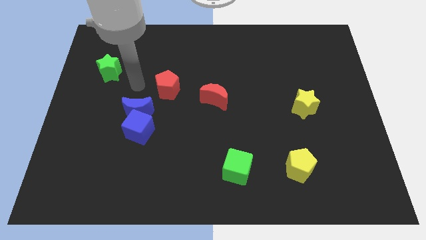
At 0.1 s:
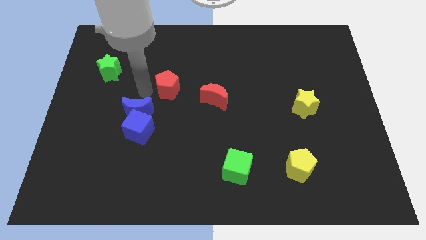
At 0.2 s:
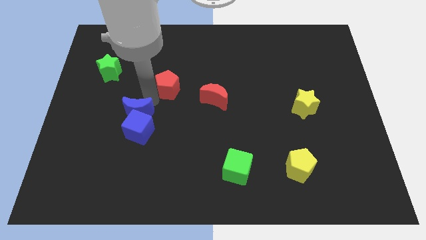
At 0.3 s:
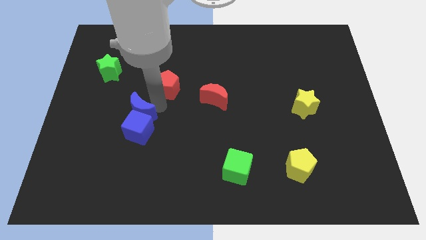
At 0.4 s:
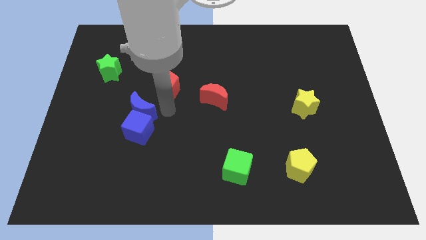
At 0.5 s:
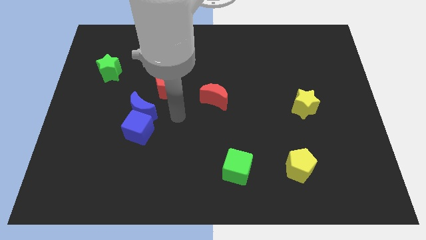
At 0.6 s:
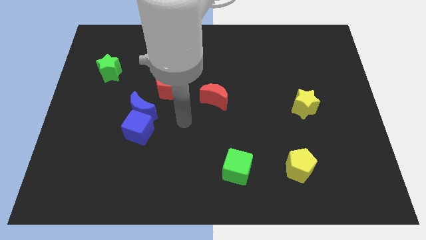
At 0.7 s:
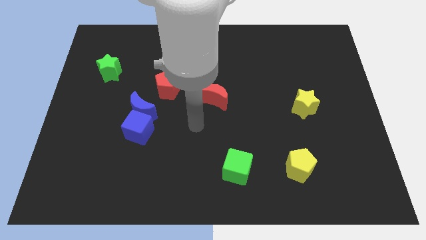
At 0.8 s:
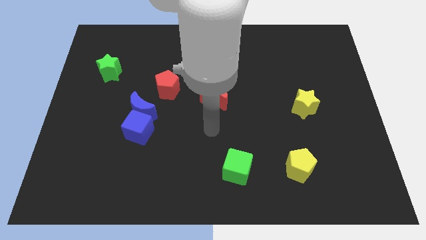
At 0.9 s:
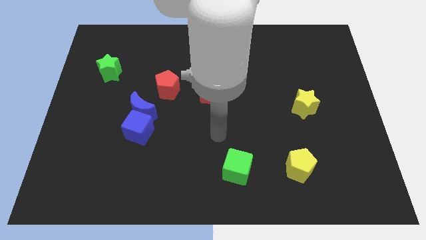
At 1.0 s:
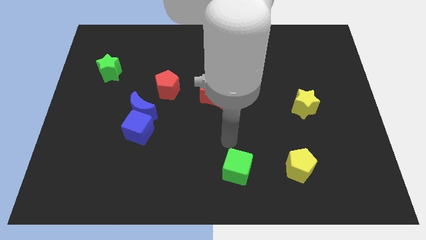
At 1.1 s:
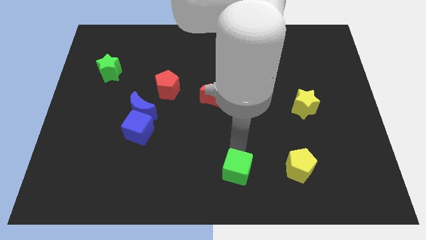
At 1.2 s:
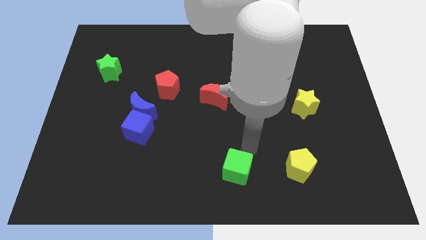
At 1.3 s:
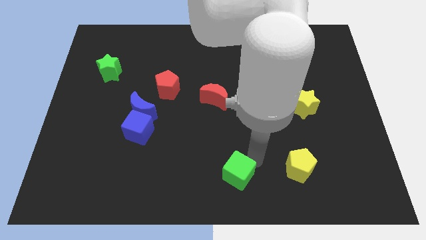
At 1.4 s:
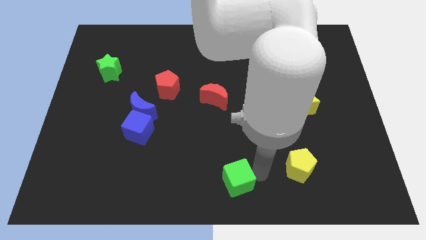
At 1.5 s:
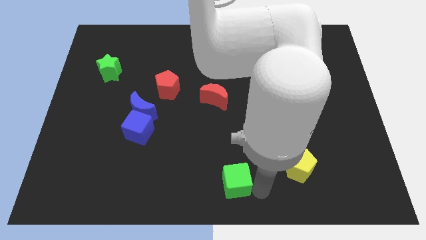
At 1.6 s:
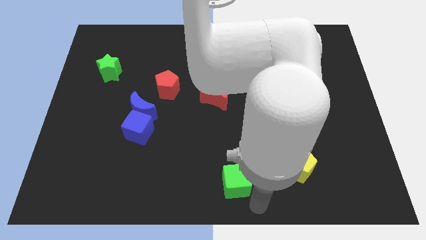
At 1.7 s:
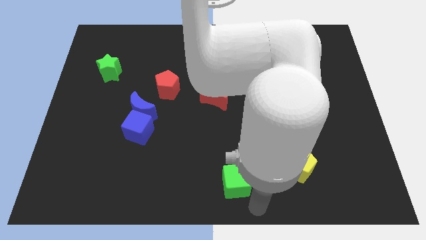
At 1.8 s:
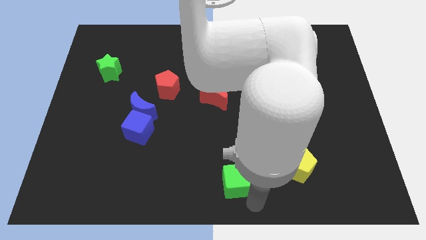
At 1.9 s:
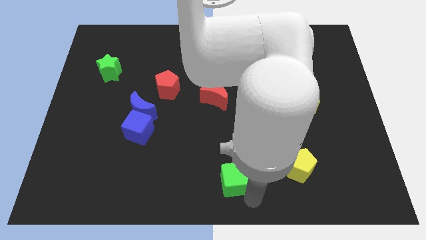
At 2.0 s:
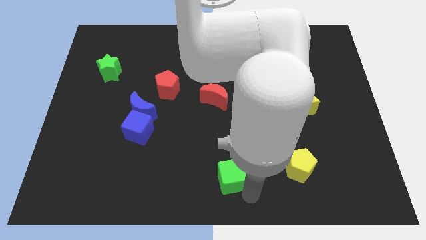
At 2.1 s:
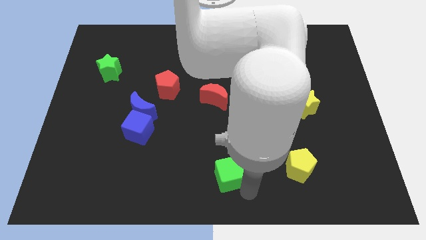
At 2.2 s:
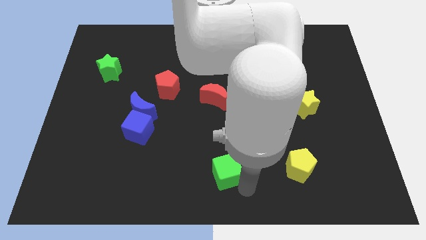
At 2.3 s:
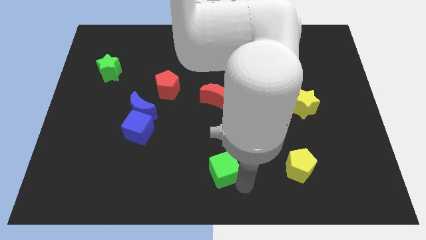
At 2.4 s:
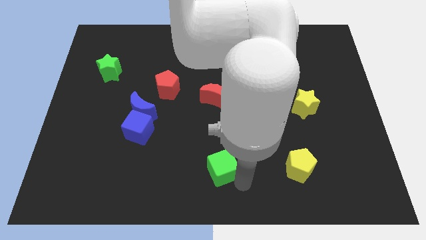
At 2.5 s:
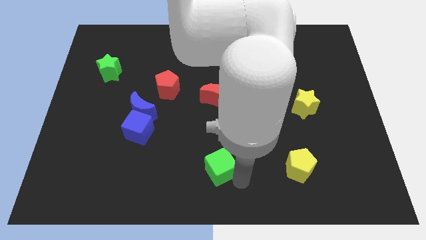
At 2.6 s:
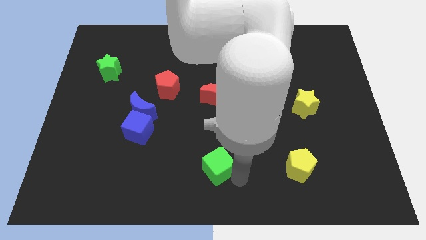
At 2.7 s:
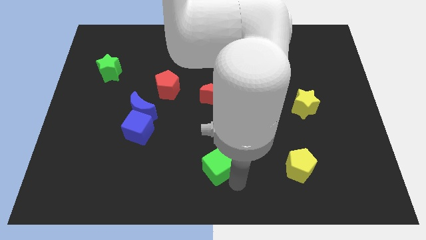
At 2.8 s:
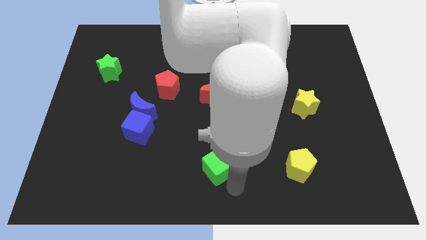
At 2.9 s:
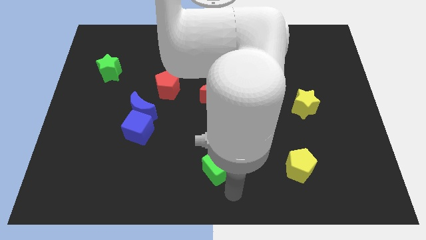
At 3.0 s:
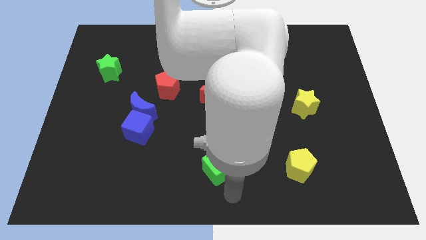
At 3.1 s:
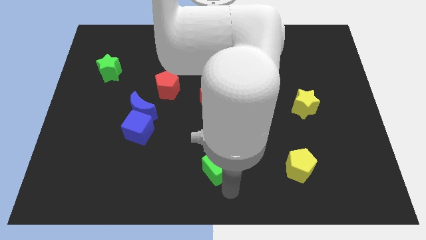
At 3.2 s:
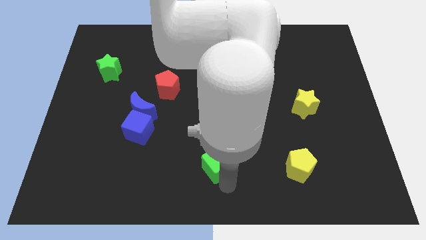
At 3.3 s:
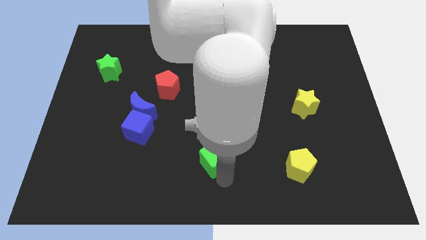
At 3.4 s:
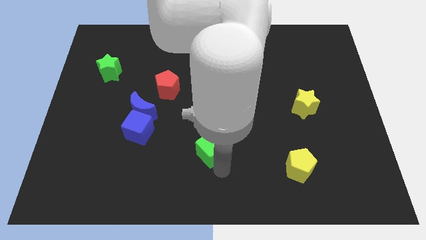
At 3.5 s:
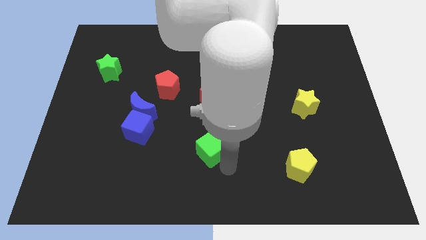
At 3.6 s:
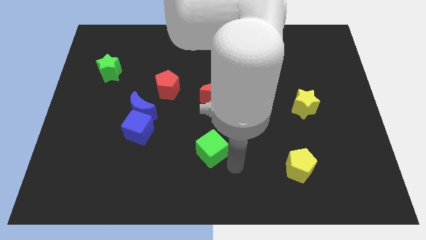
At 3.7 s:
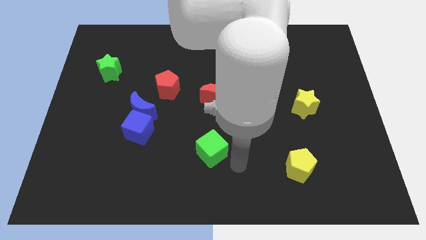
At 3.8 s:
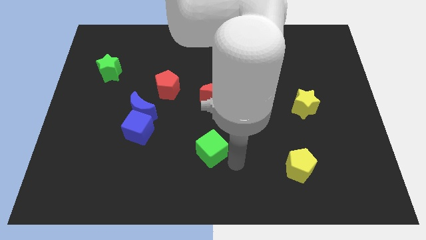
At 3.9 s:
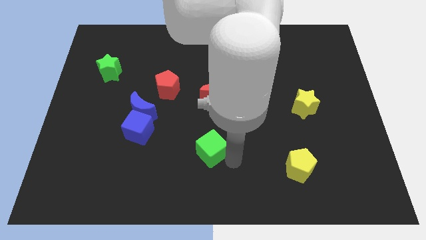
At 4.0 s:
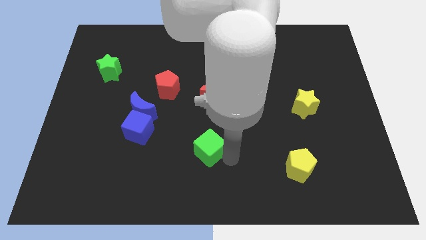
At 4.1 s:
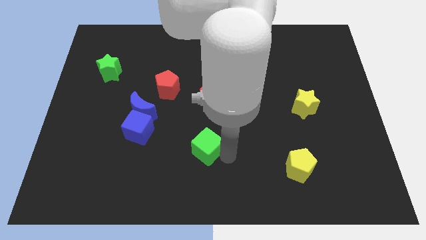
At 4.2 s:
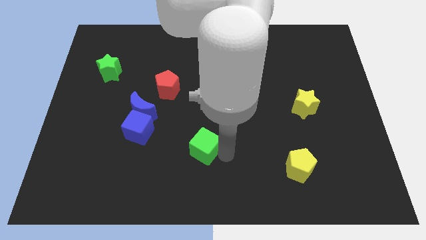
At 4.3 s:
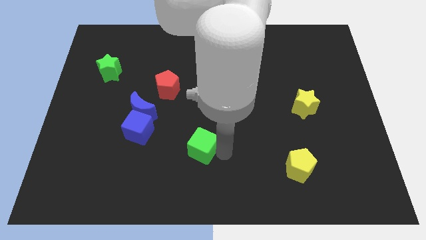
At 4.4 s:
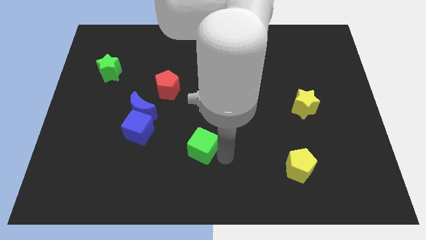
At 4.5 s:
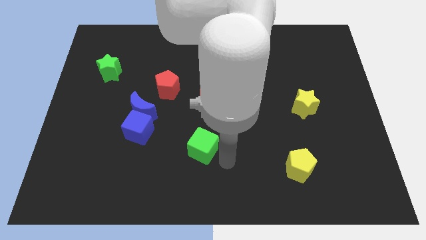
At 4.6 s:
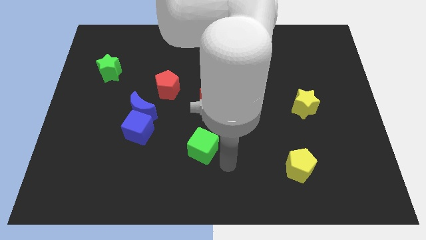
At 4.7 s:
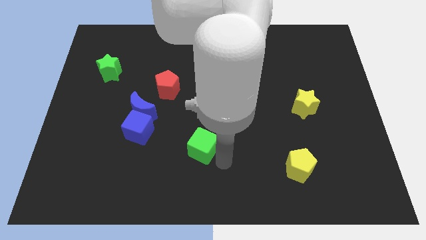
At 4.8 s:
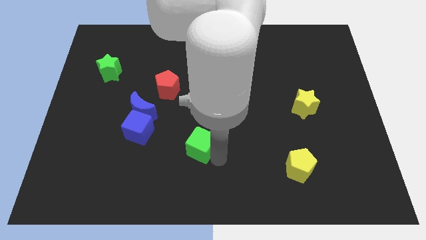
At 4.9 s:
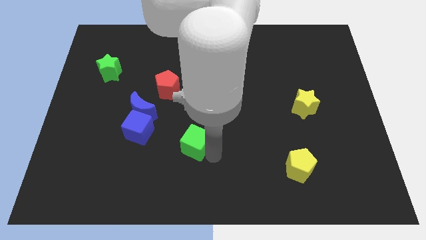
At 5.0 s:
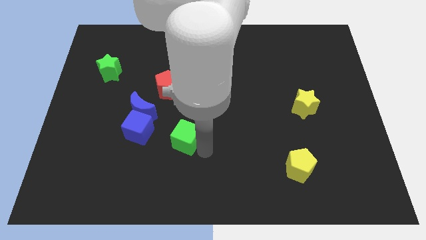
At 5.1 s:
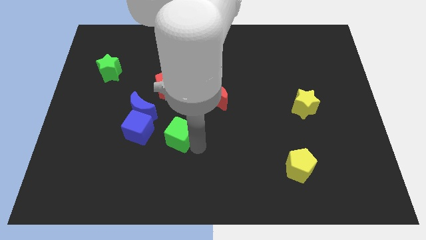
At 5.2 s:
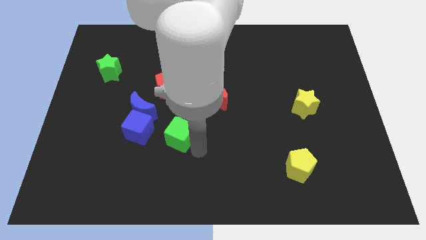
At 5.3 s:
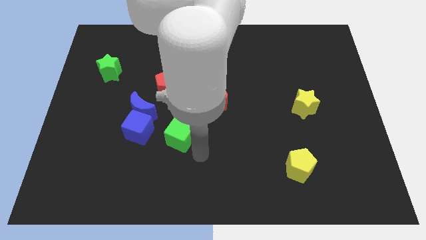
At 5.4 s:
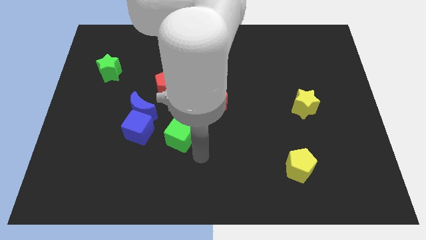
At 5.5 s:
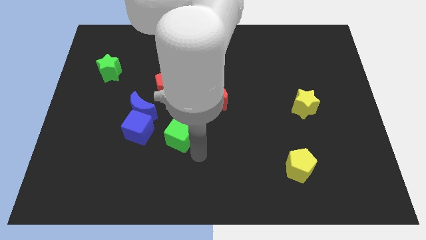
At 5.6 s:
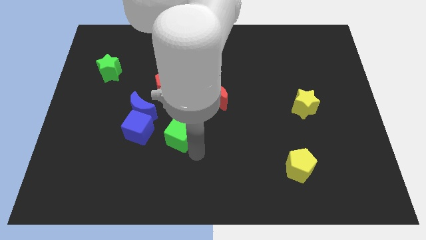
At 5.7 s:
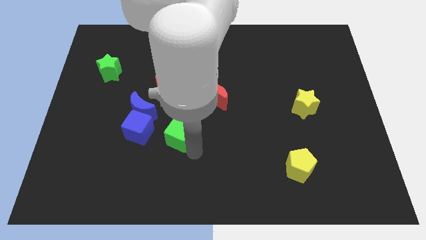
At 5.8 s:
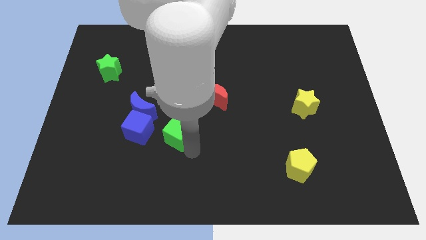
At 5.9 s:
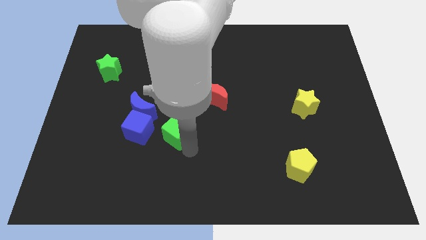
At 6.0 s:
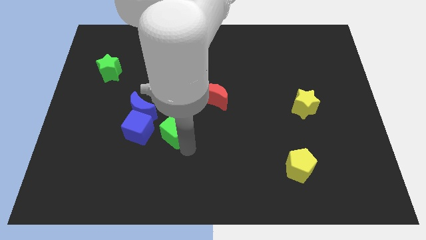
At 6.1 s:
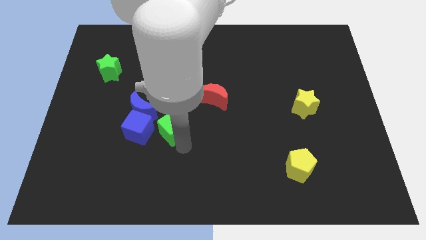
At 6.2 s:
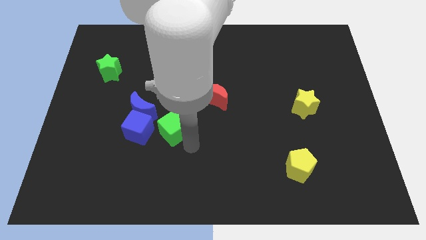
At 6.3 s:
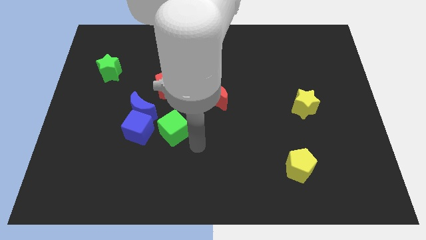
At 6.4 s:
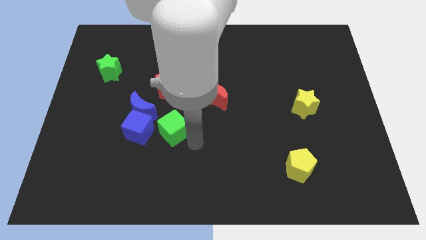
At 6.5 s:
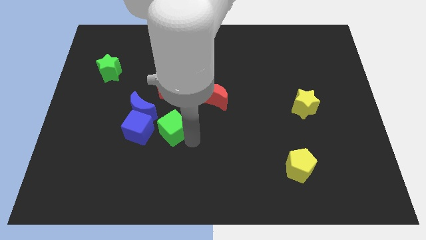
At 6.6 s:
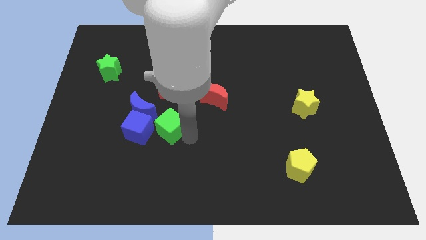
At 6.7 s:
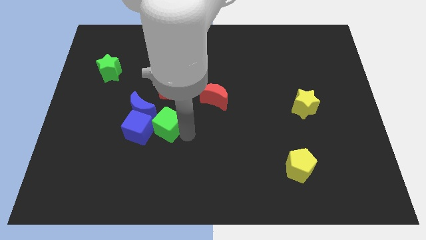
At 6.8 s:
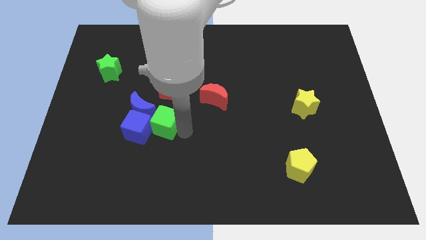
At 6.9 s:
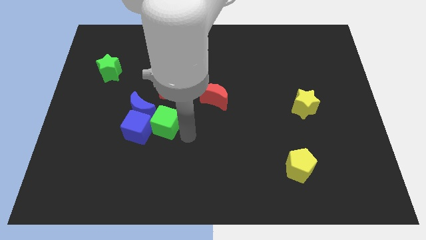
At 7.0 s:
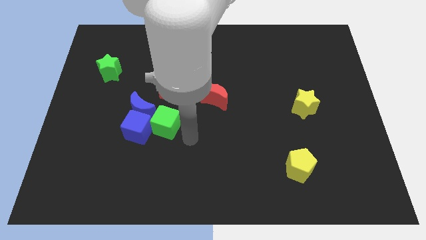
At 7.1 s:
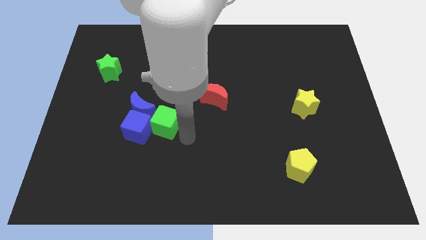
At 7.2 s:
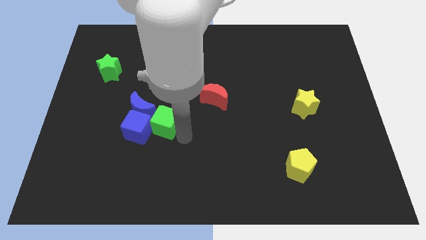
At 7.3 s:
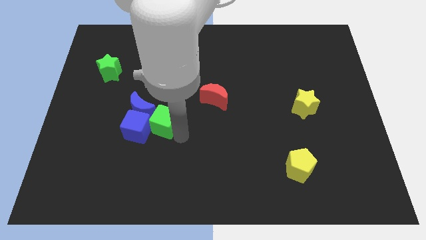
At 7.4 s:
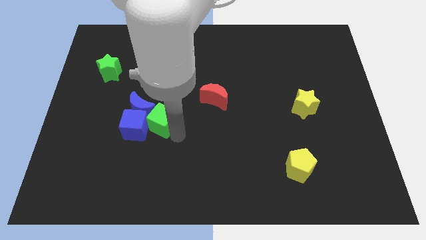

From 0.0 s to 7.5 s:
push the green cube next to the blue moon
